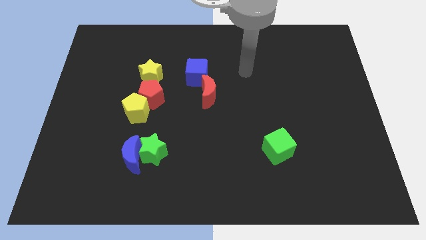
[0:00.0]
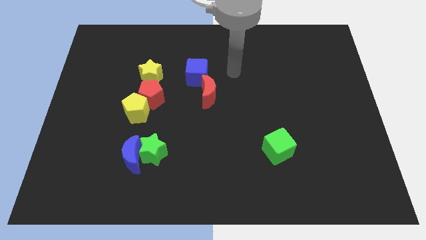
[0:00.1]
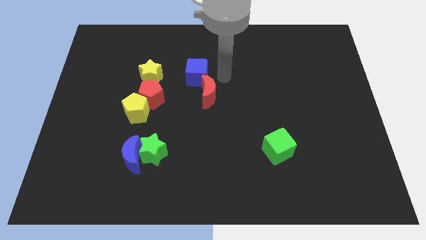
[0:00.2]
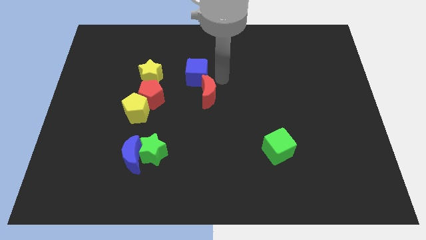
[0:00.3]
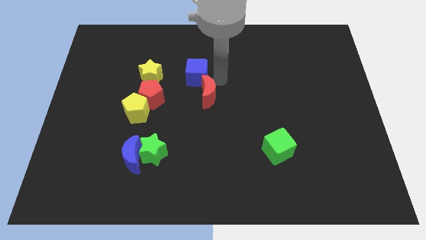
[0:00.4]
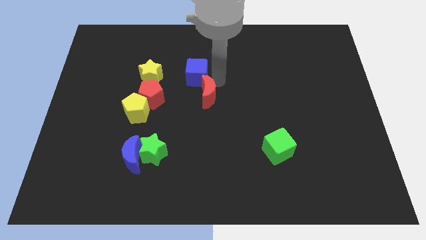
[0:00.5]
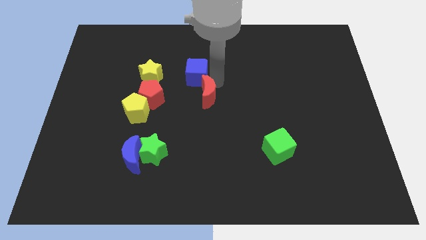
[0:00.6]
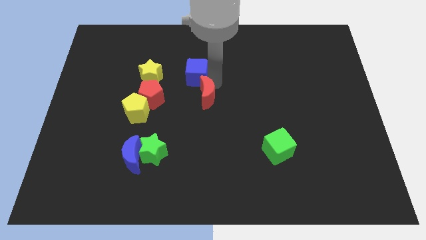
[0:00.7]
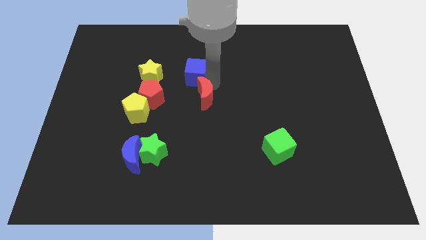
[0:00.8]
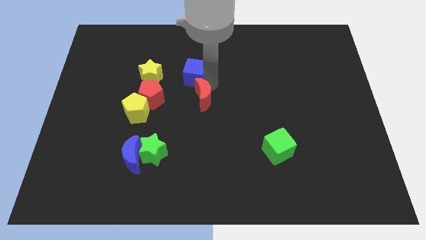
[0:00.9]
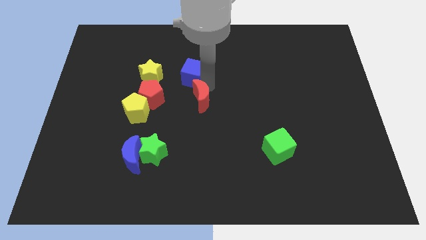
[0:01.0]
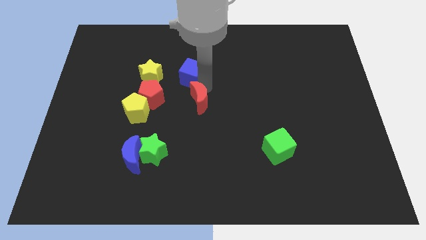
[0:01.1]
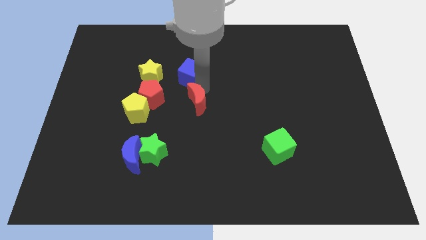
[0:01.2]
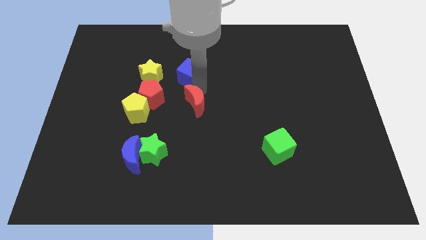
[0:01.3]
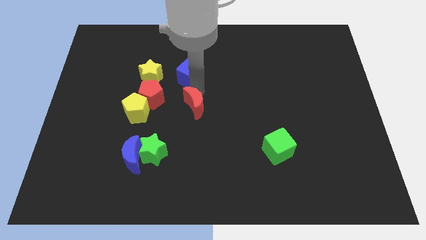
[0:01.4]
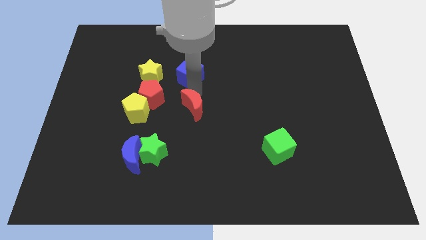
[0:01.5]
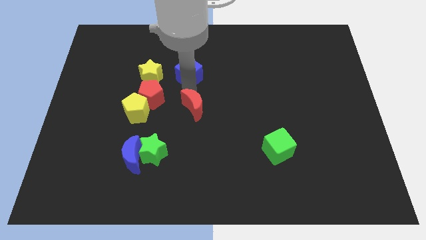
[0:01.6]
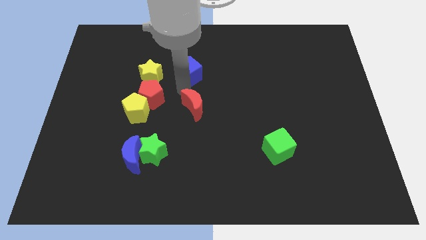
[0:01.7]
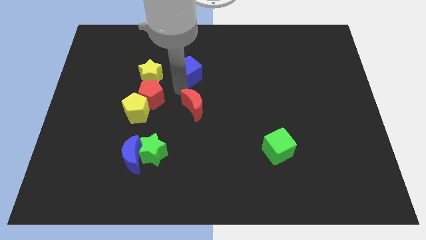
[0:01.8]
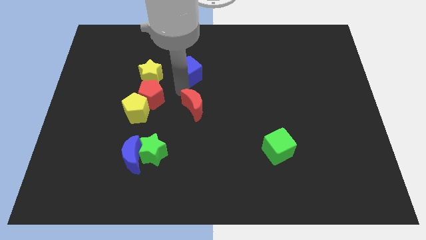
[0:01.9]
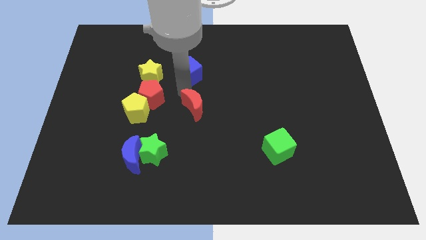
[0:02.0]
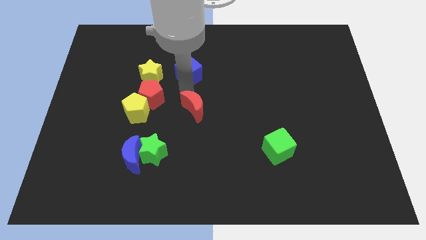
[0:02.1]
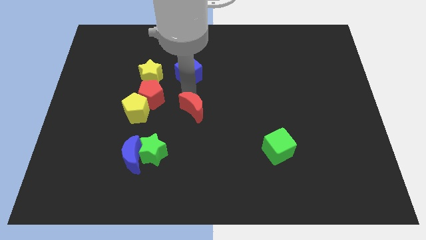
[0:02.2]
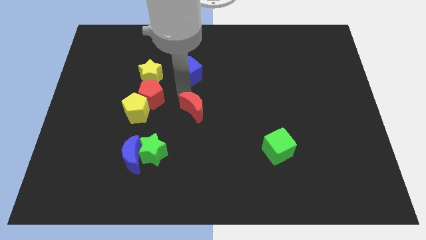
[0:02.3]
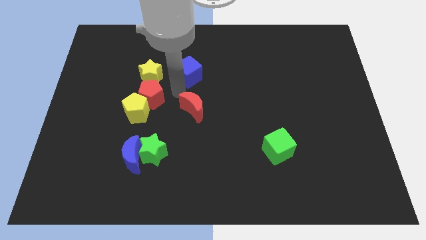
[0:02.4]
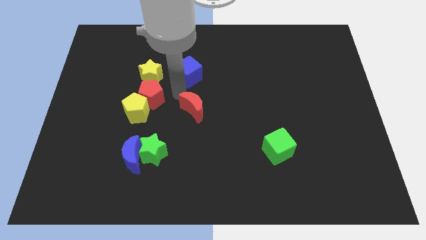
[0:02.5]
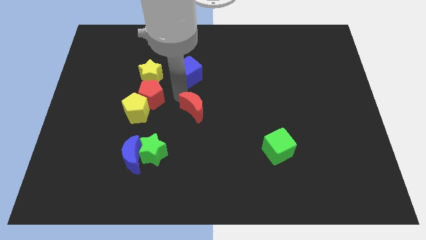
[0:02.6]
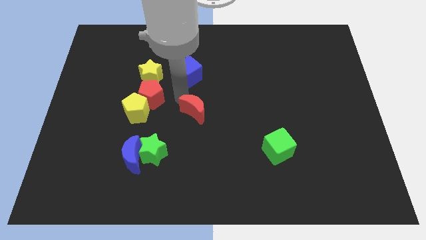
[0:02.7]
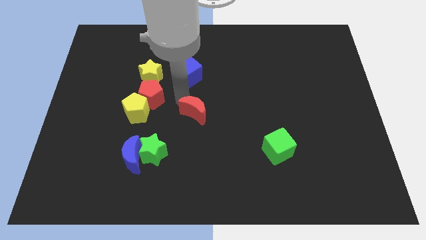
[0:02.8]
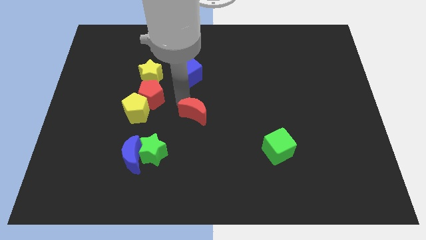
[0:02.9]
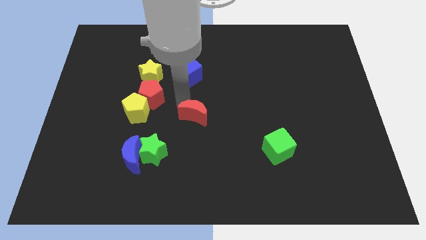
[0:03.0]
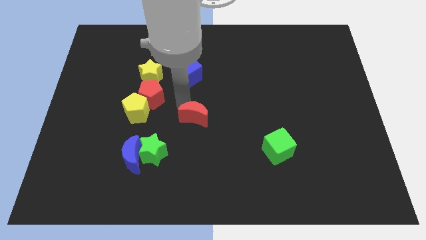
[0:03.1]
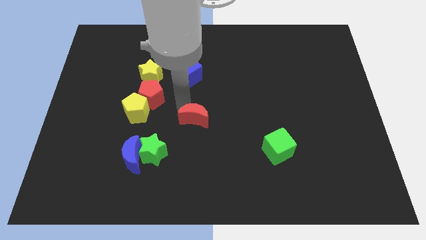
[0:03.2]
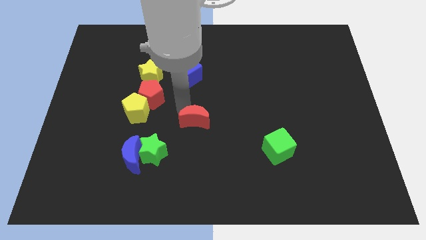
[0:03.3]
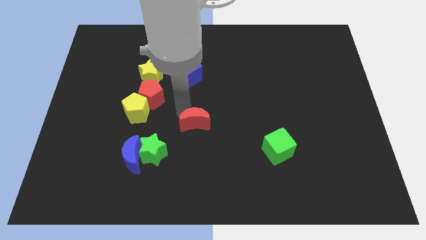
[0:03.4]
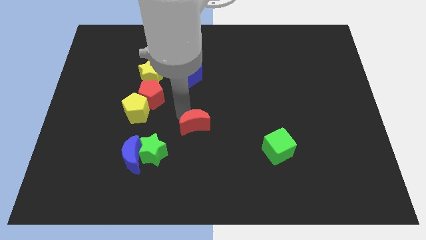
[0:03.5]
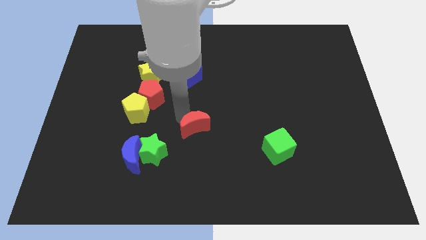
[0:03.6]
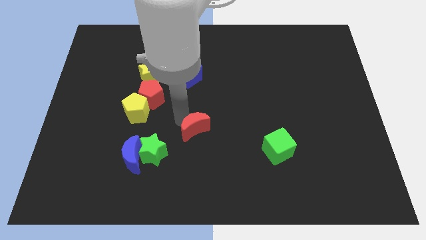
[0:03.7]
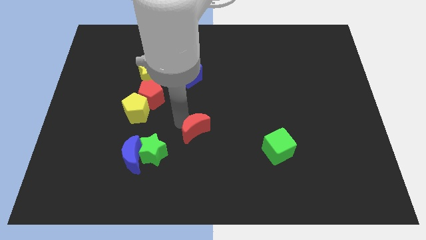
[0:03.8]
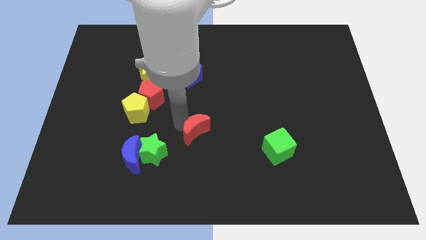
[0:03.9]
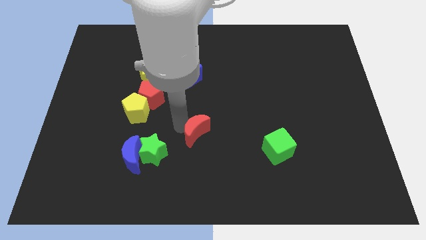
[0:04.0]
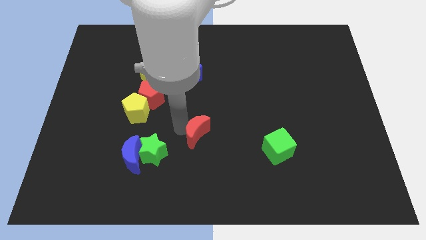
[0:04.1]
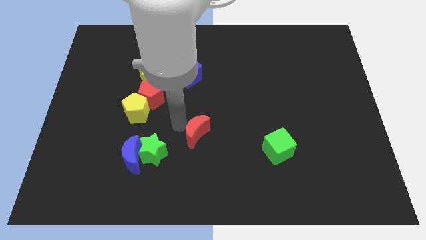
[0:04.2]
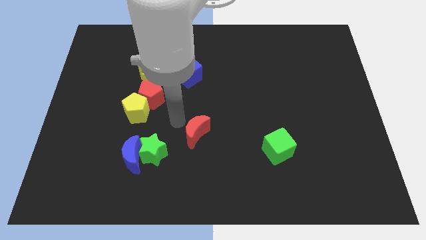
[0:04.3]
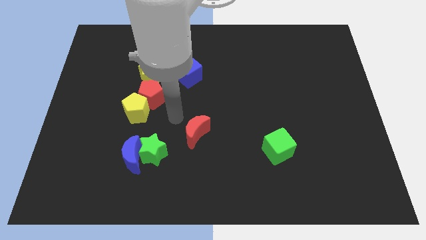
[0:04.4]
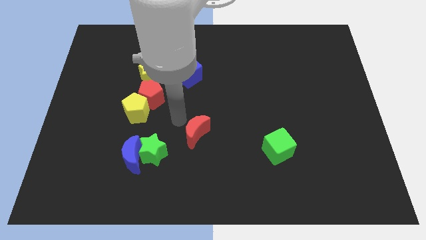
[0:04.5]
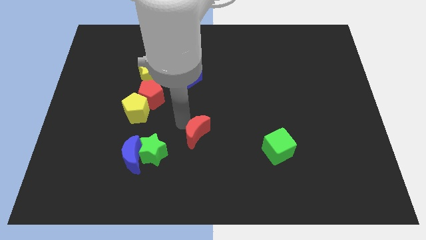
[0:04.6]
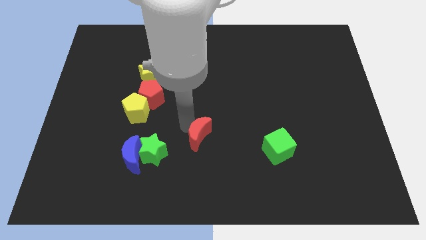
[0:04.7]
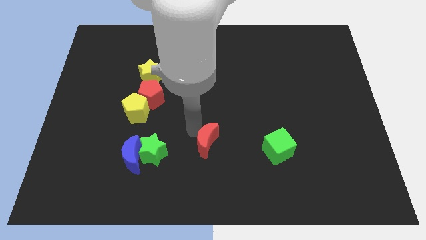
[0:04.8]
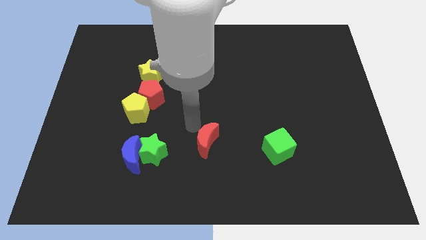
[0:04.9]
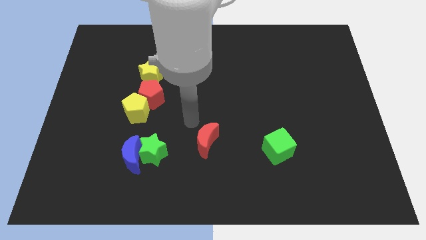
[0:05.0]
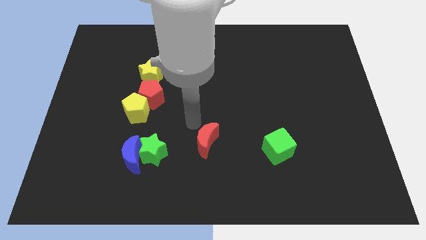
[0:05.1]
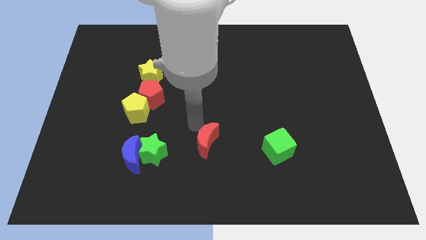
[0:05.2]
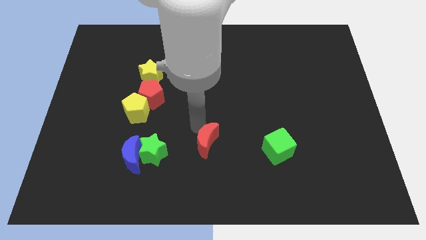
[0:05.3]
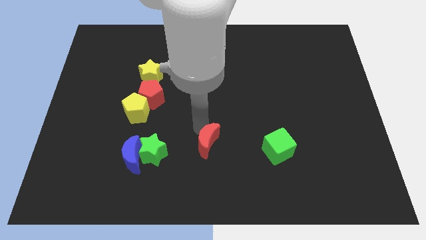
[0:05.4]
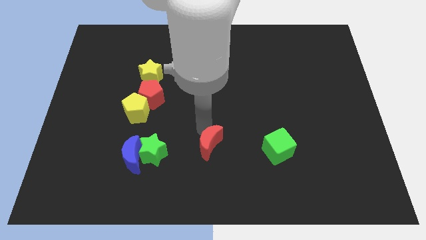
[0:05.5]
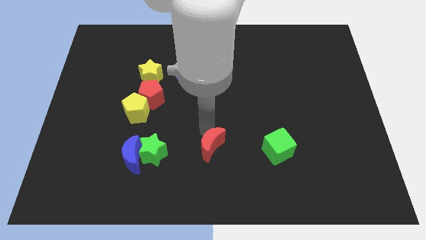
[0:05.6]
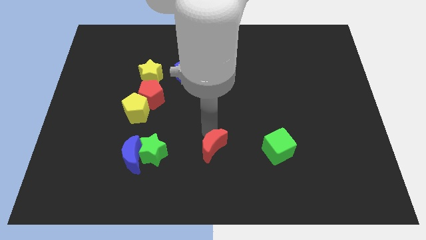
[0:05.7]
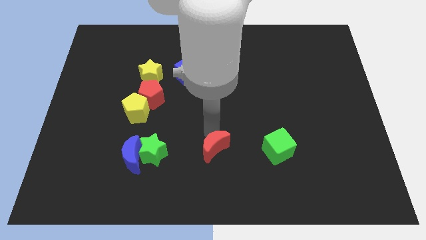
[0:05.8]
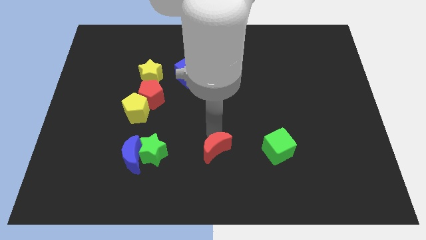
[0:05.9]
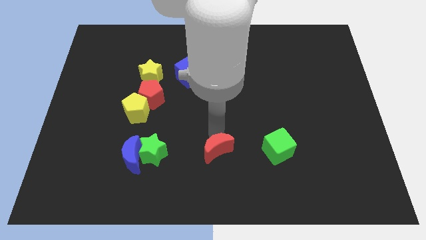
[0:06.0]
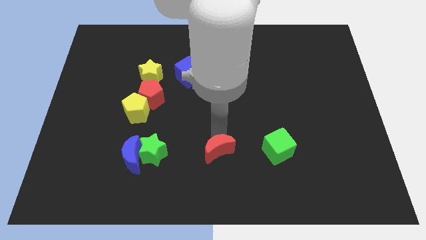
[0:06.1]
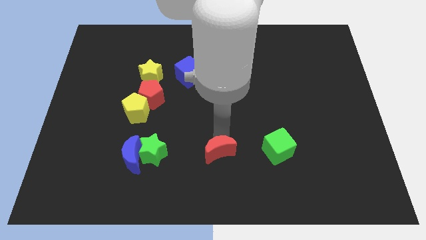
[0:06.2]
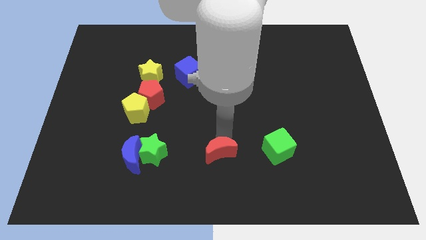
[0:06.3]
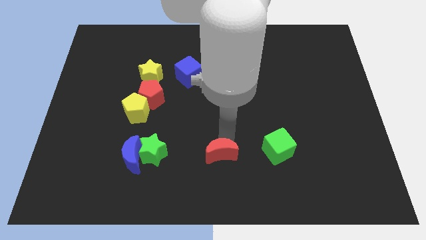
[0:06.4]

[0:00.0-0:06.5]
move the red moon to the bottom side
